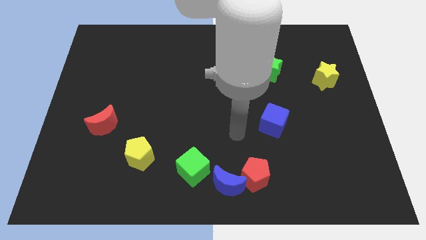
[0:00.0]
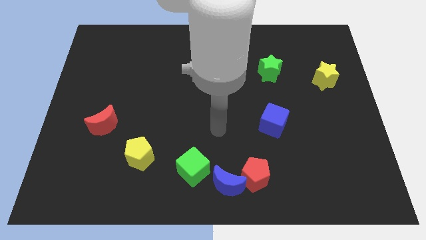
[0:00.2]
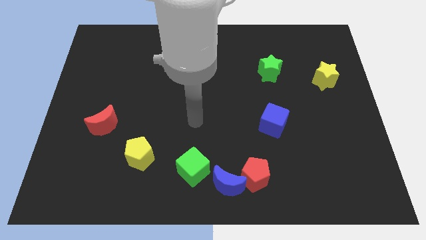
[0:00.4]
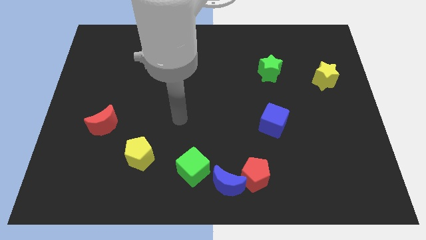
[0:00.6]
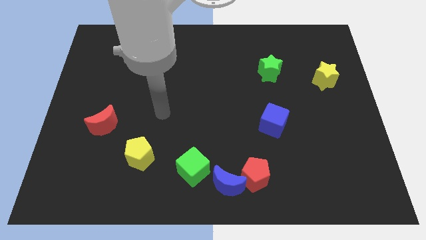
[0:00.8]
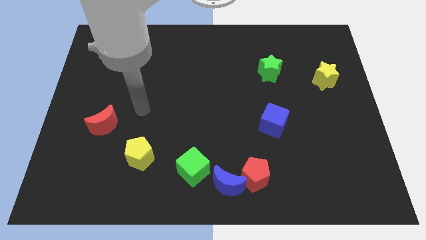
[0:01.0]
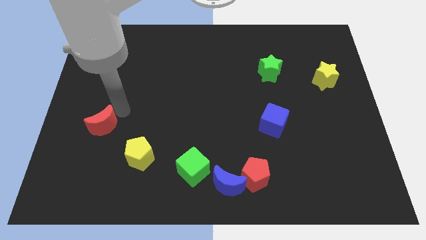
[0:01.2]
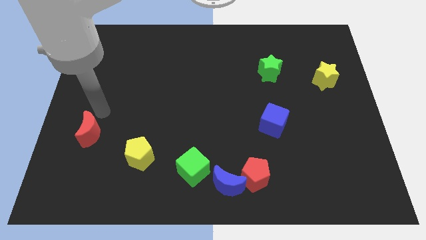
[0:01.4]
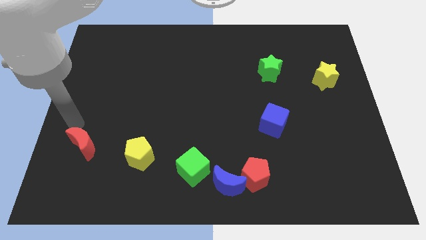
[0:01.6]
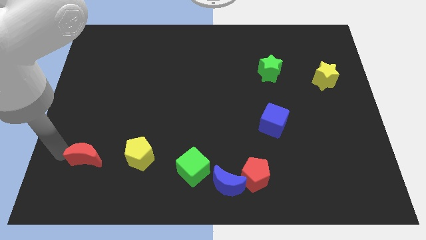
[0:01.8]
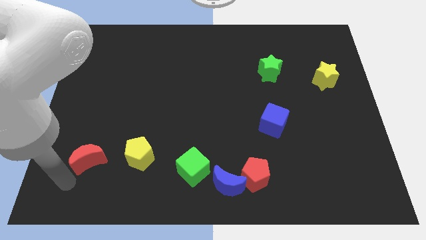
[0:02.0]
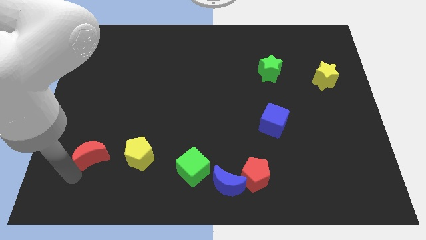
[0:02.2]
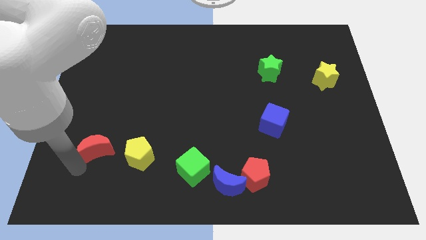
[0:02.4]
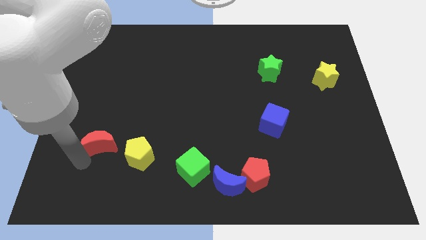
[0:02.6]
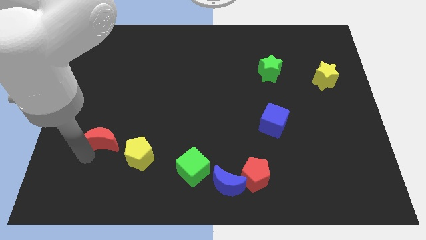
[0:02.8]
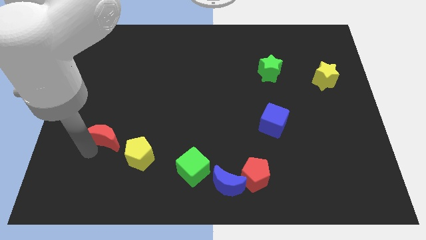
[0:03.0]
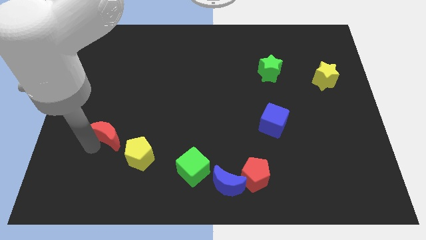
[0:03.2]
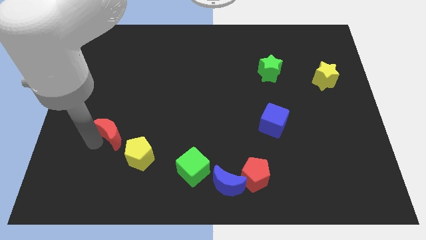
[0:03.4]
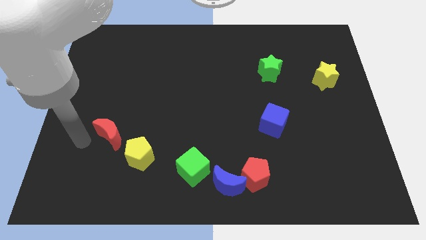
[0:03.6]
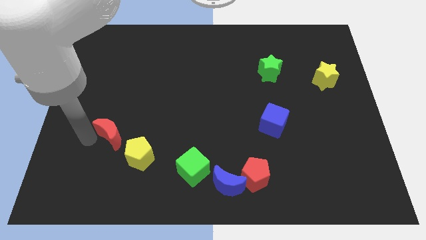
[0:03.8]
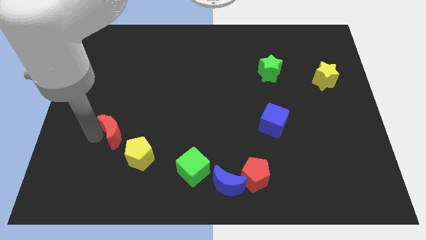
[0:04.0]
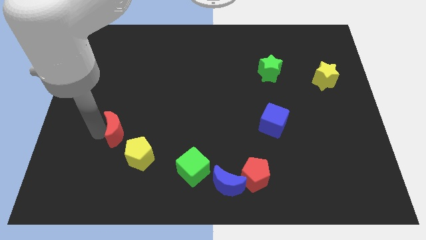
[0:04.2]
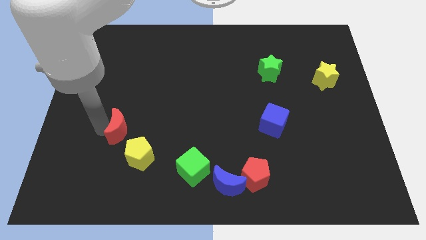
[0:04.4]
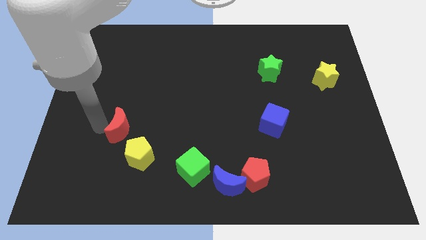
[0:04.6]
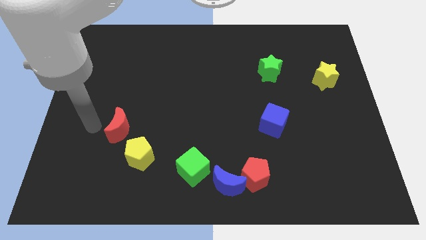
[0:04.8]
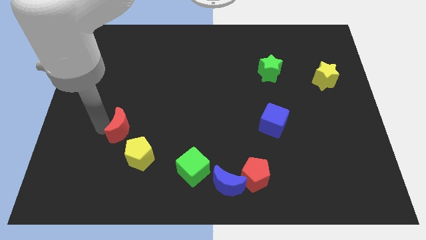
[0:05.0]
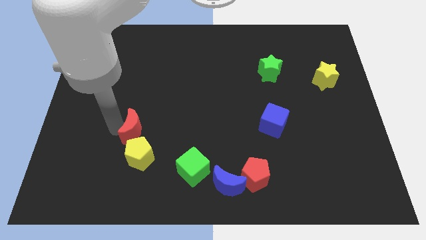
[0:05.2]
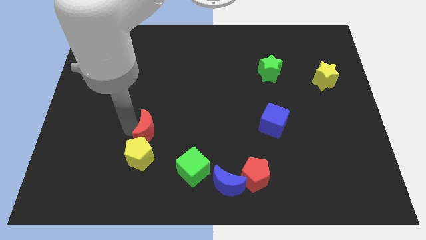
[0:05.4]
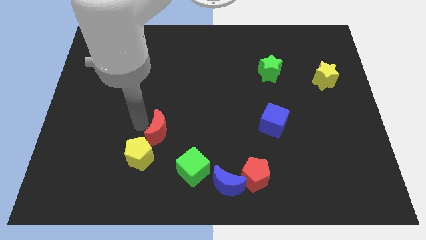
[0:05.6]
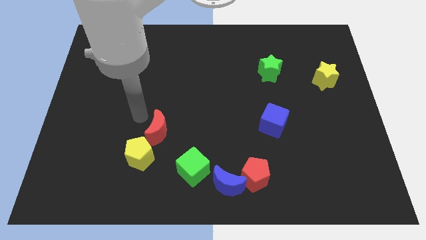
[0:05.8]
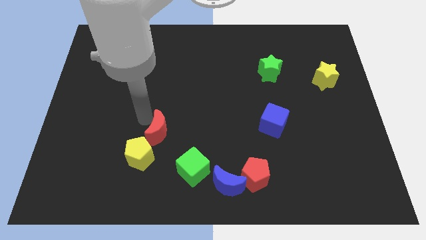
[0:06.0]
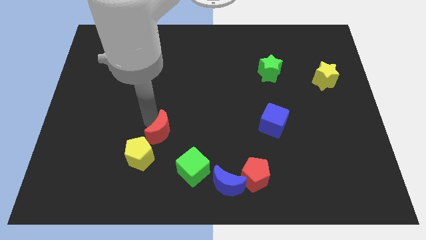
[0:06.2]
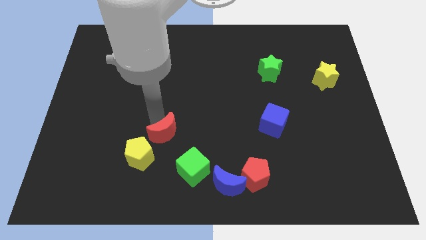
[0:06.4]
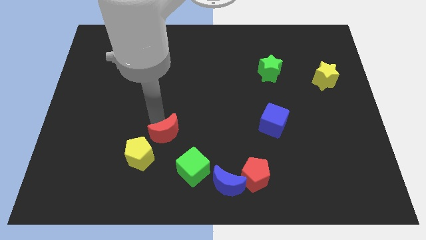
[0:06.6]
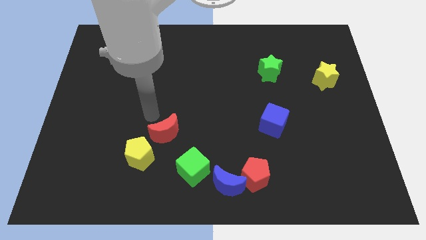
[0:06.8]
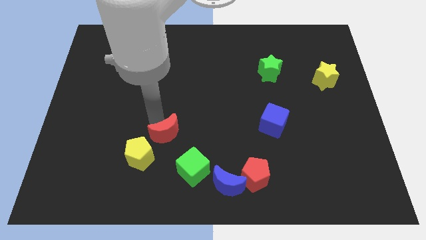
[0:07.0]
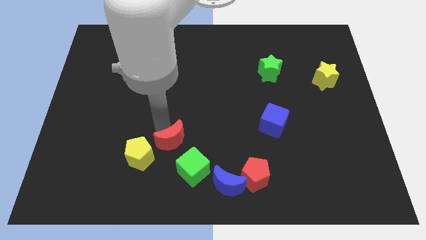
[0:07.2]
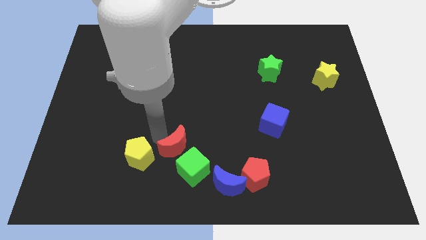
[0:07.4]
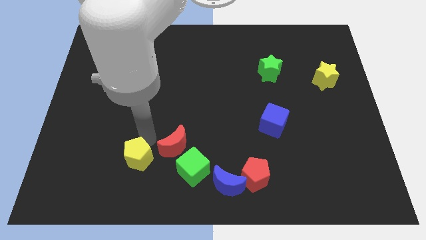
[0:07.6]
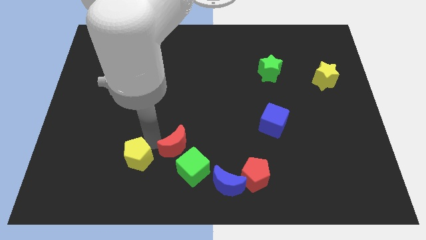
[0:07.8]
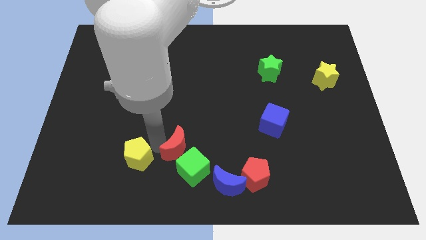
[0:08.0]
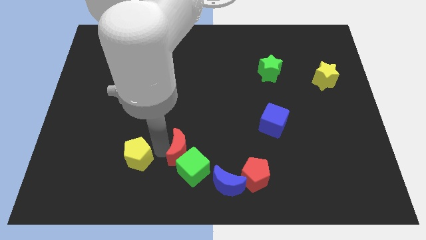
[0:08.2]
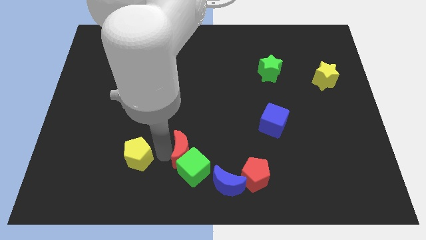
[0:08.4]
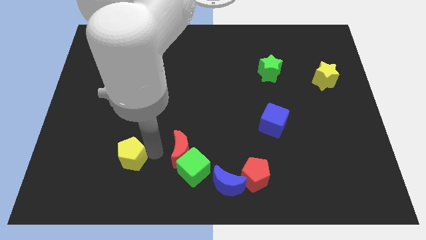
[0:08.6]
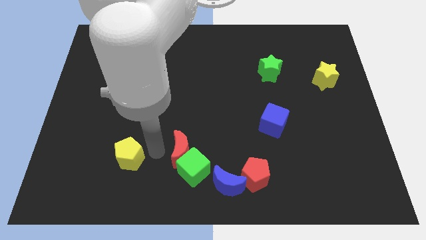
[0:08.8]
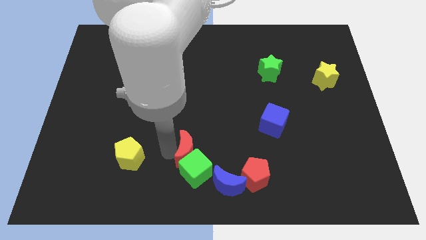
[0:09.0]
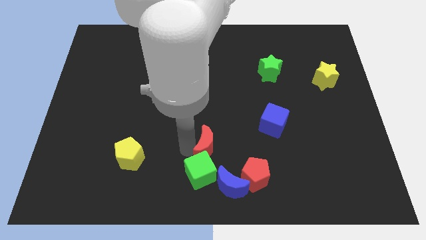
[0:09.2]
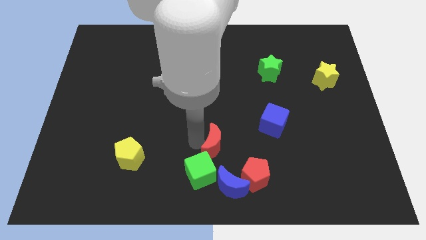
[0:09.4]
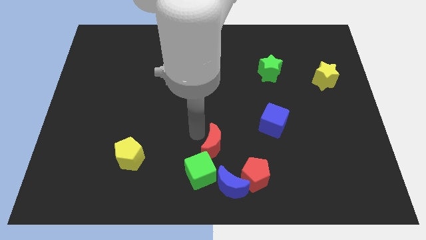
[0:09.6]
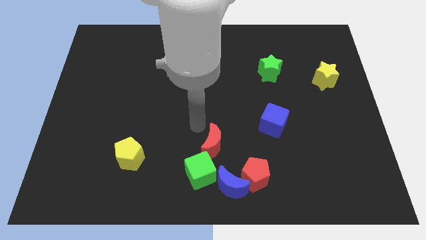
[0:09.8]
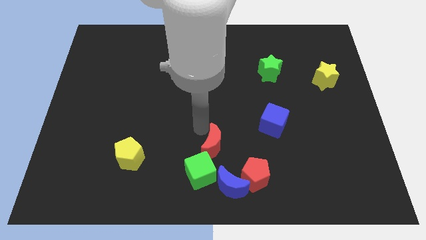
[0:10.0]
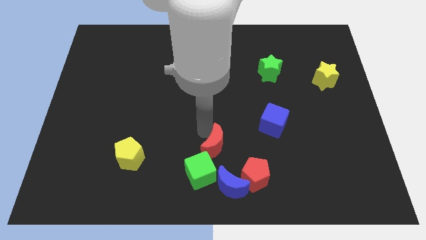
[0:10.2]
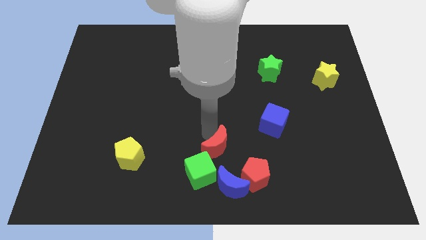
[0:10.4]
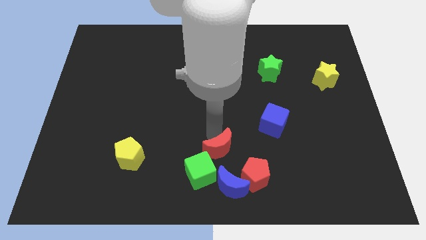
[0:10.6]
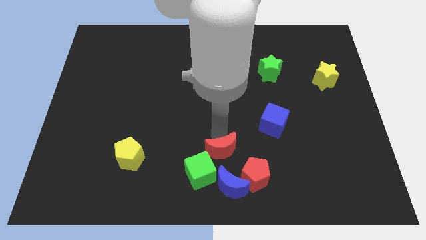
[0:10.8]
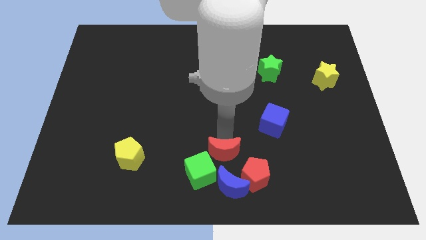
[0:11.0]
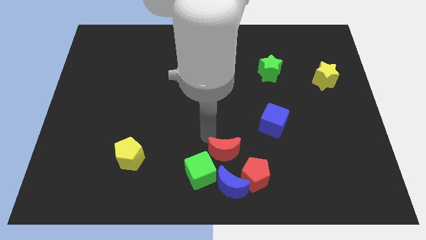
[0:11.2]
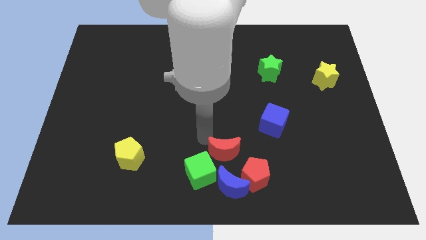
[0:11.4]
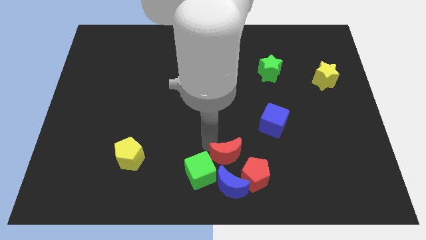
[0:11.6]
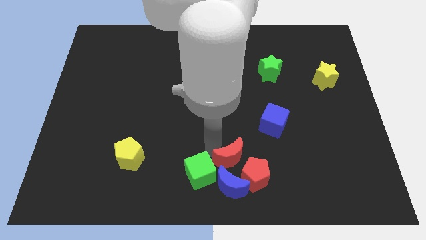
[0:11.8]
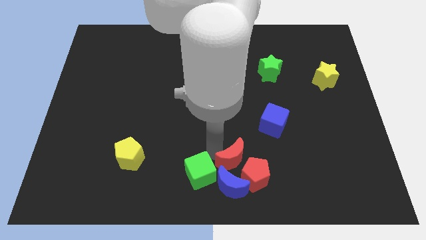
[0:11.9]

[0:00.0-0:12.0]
move the red moon next to the red pentagon

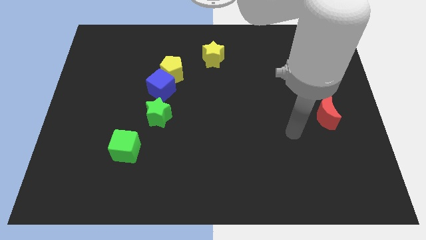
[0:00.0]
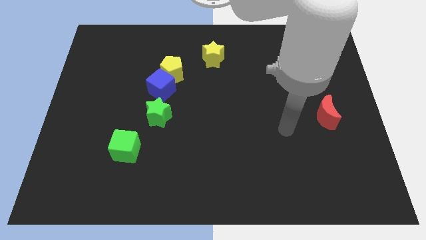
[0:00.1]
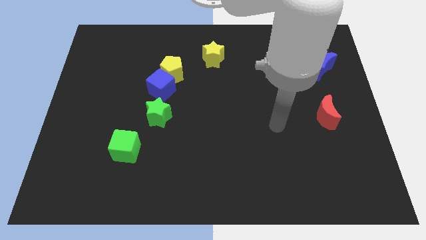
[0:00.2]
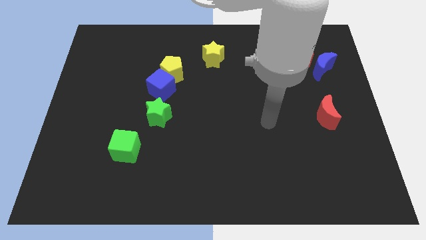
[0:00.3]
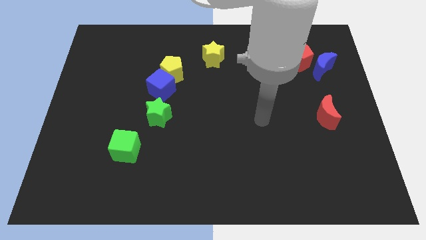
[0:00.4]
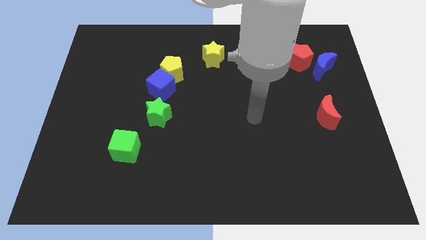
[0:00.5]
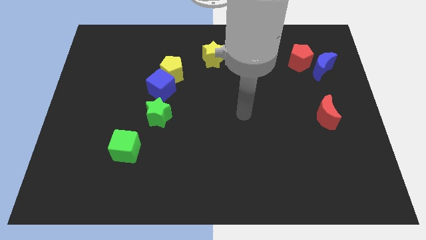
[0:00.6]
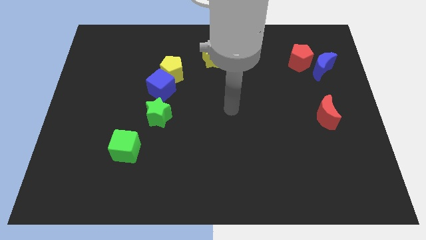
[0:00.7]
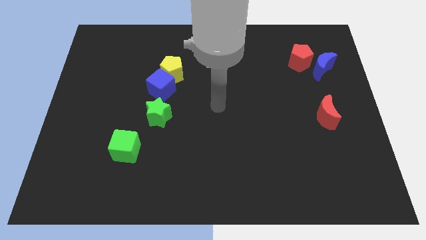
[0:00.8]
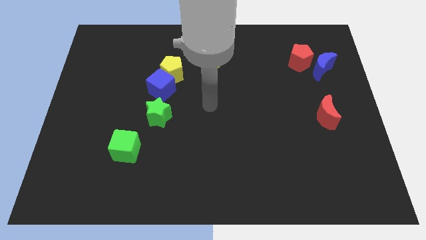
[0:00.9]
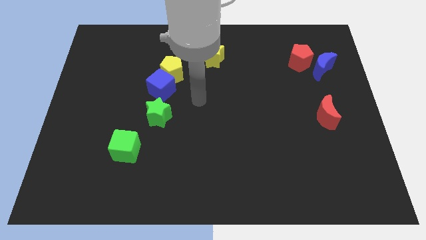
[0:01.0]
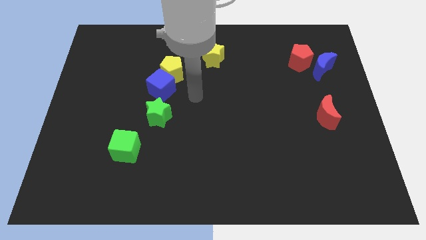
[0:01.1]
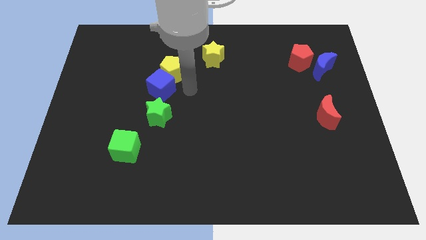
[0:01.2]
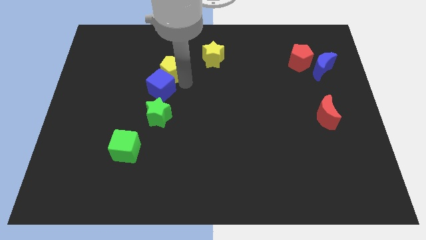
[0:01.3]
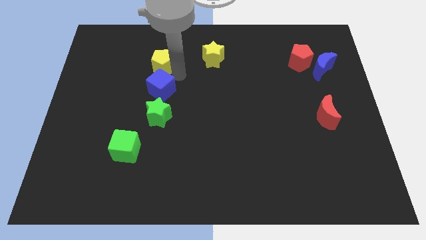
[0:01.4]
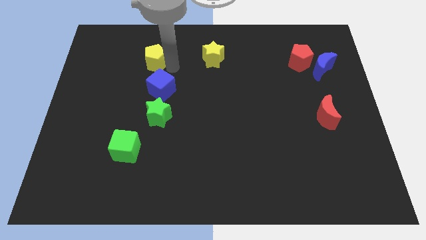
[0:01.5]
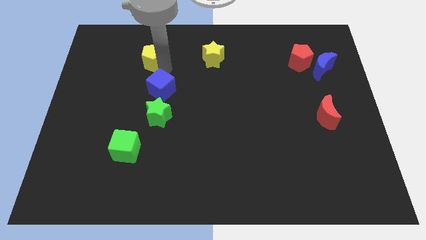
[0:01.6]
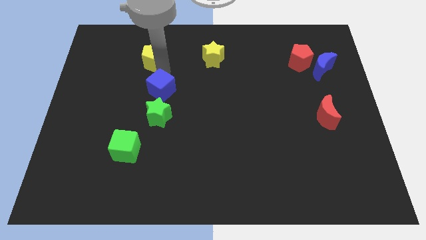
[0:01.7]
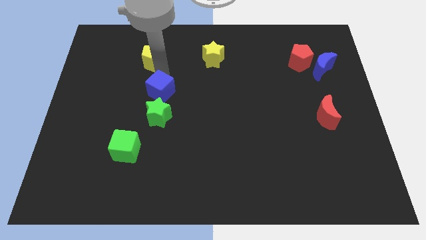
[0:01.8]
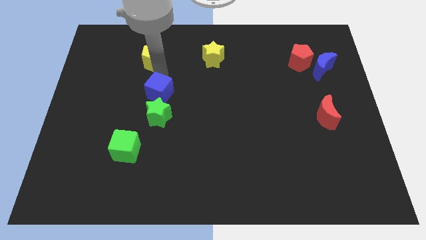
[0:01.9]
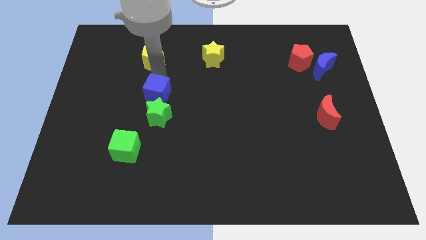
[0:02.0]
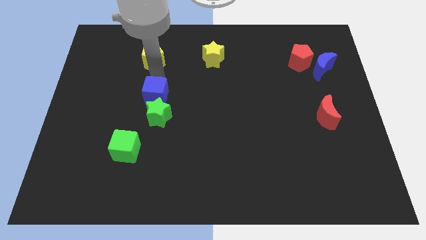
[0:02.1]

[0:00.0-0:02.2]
push the blue cube next to the green star
